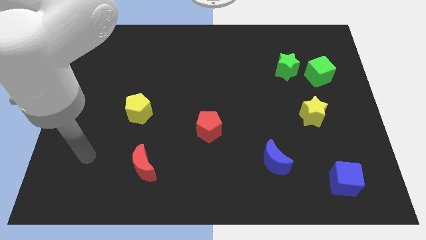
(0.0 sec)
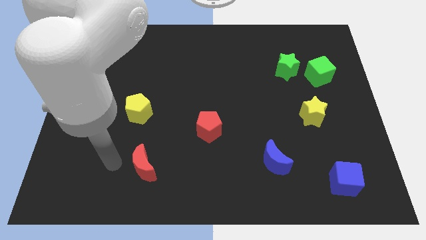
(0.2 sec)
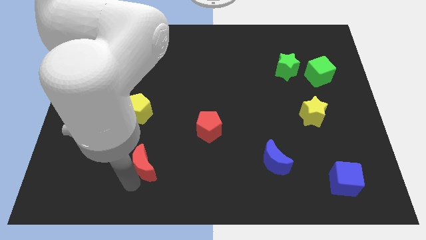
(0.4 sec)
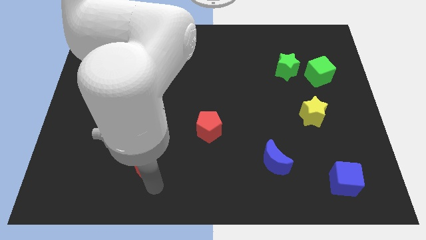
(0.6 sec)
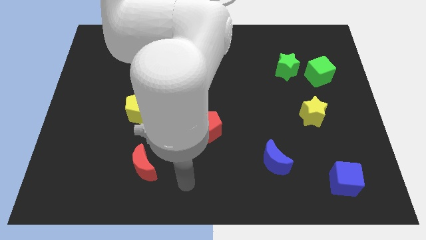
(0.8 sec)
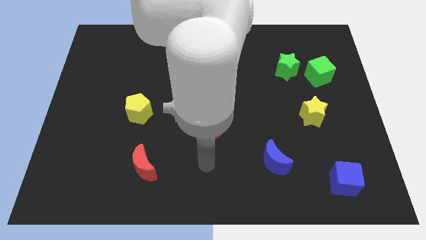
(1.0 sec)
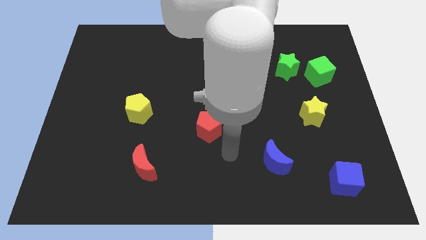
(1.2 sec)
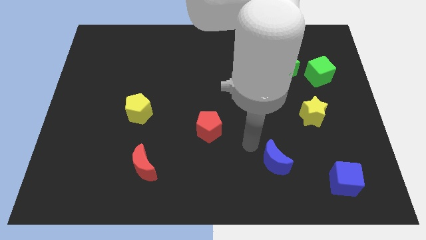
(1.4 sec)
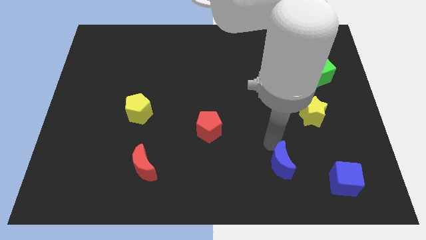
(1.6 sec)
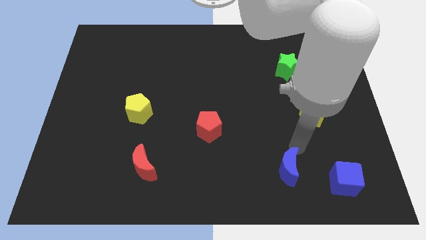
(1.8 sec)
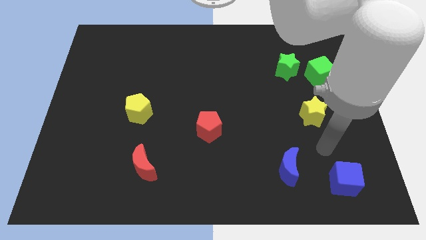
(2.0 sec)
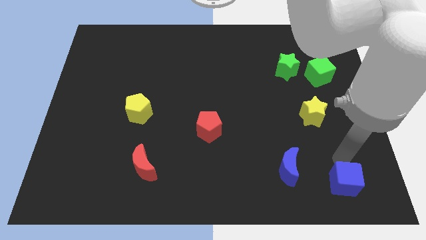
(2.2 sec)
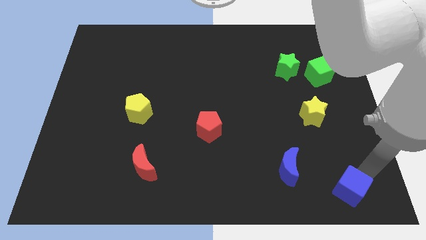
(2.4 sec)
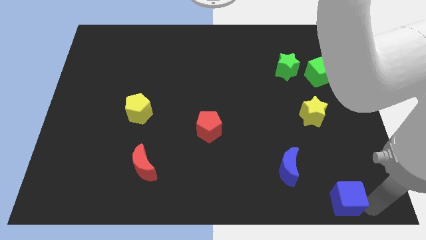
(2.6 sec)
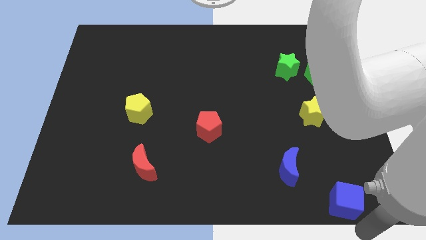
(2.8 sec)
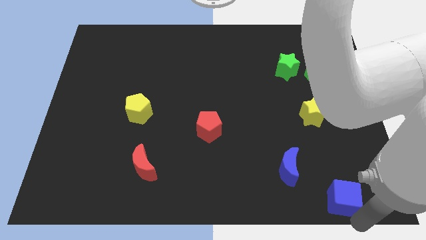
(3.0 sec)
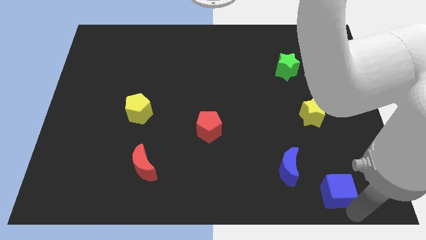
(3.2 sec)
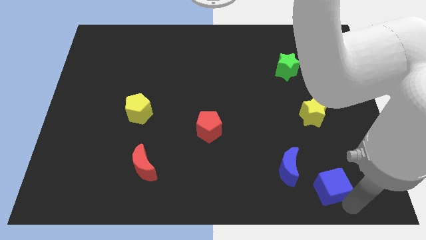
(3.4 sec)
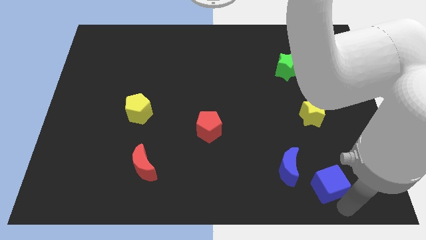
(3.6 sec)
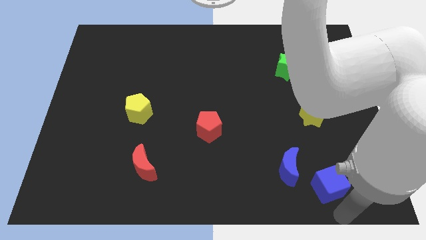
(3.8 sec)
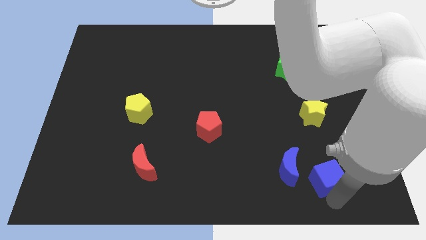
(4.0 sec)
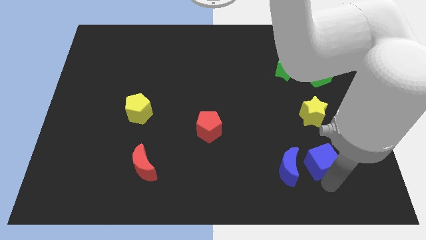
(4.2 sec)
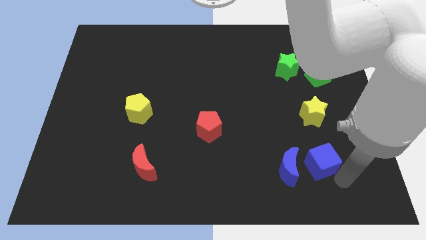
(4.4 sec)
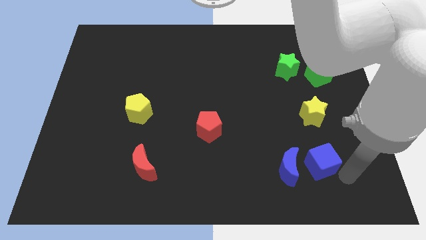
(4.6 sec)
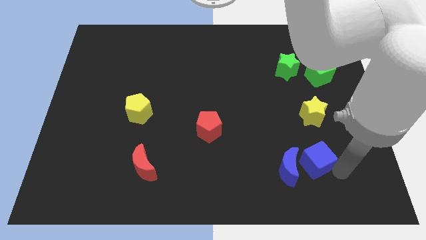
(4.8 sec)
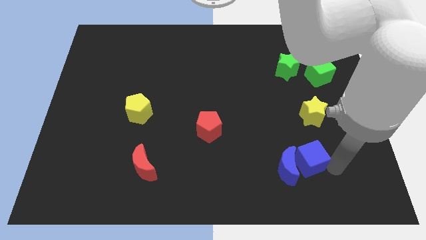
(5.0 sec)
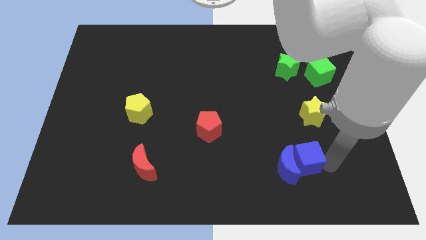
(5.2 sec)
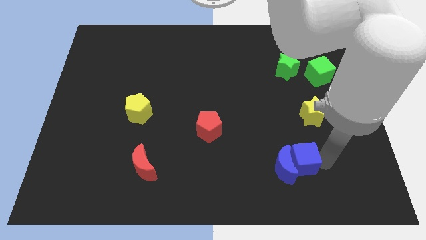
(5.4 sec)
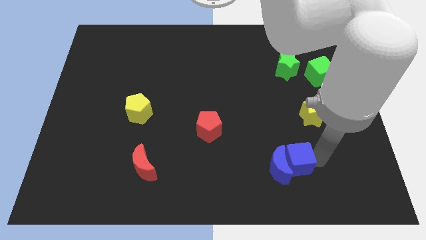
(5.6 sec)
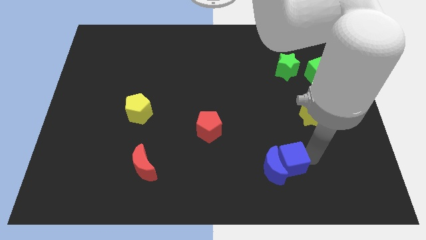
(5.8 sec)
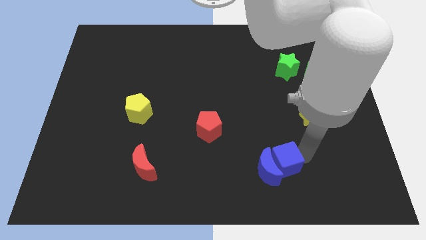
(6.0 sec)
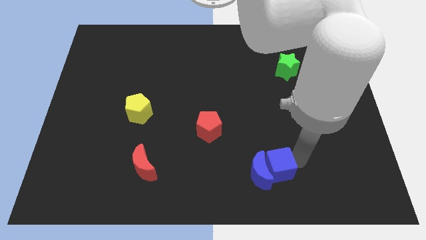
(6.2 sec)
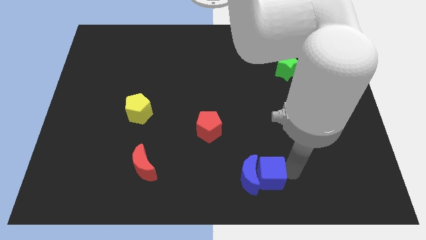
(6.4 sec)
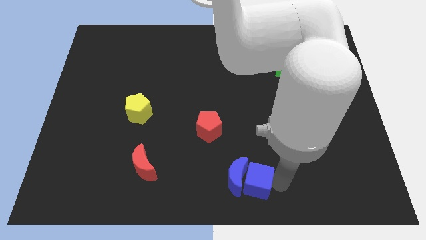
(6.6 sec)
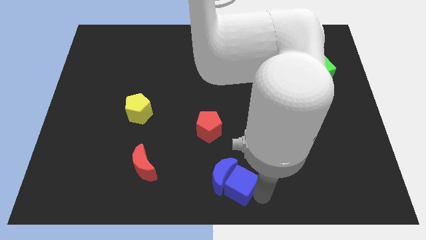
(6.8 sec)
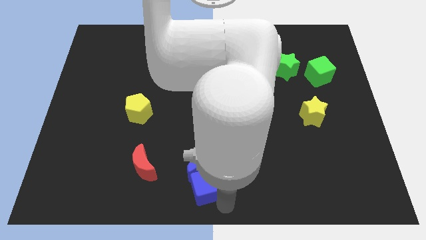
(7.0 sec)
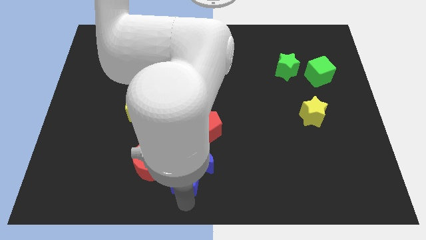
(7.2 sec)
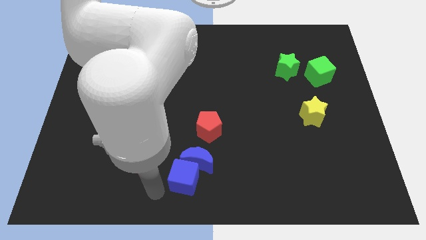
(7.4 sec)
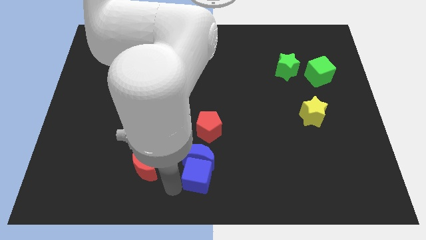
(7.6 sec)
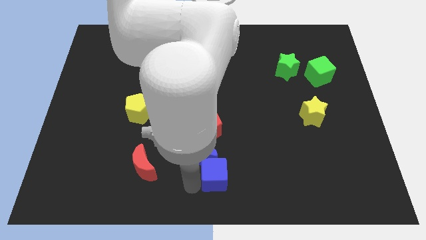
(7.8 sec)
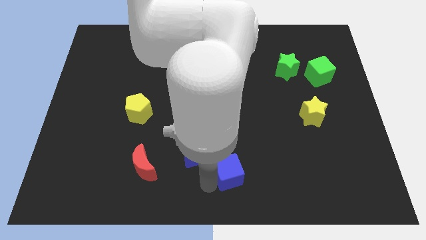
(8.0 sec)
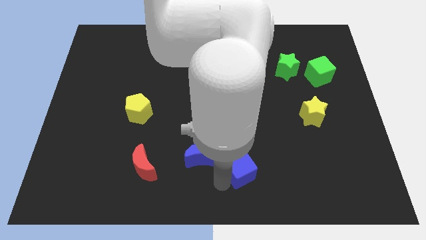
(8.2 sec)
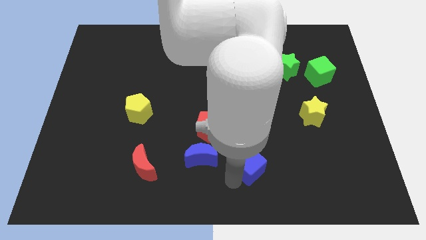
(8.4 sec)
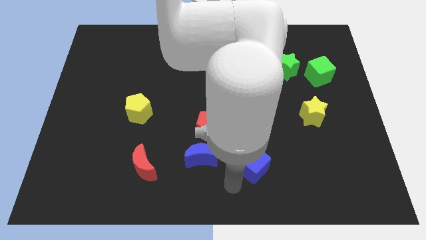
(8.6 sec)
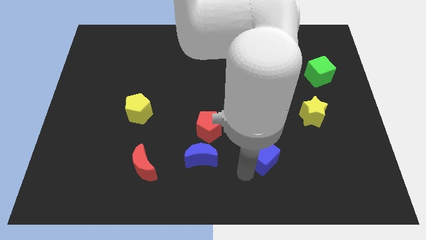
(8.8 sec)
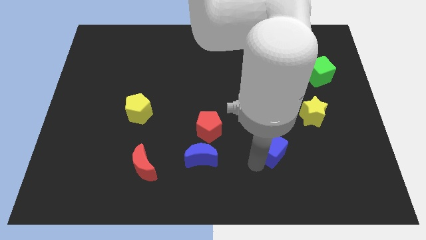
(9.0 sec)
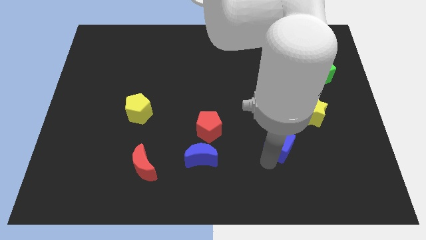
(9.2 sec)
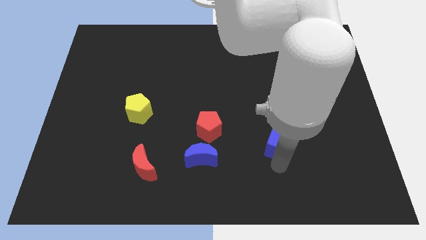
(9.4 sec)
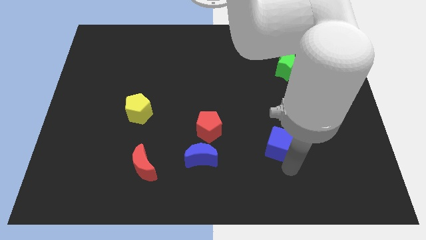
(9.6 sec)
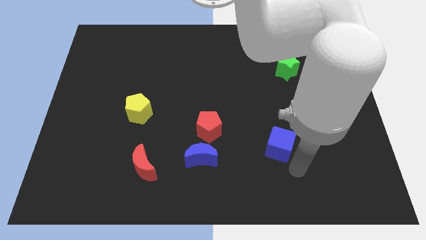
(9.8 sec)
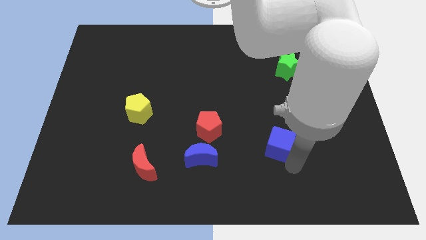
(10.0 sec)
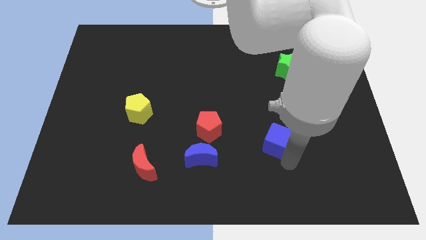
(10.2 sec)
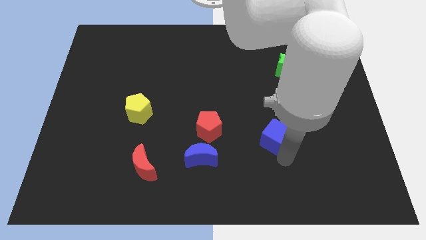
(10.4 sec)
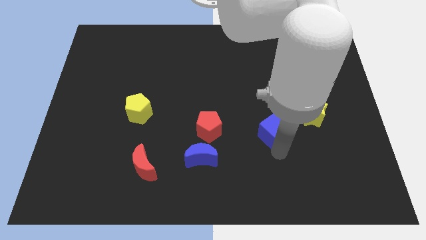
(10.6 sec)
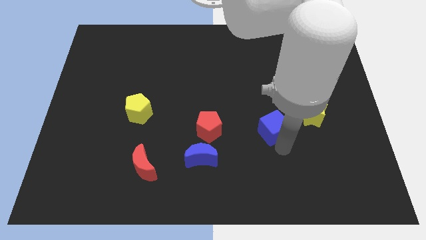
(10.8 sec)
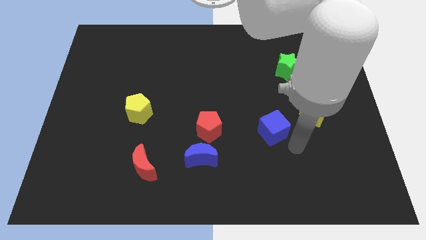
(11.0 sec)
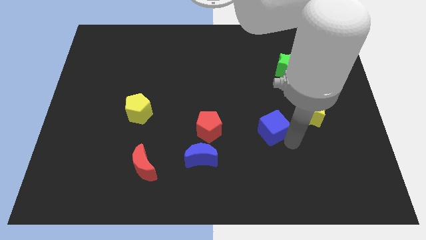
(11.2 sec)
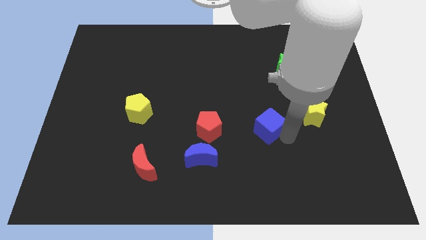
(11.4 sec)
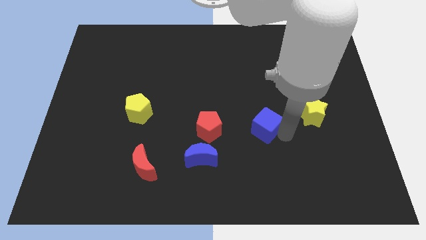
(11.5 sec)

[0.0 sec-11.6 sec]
move the blue cube upwards and to the left

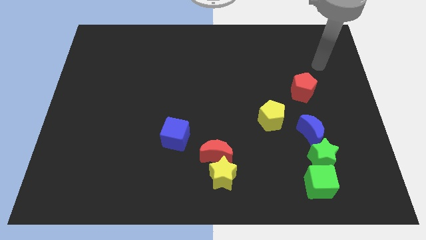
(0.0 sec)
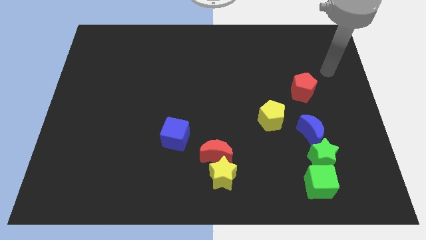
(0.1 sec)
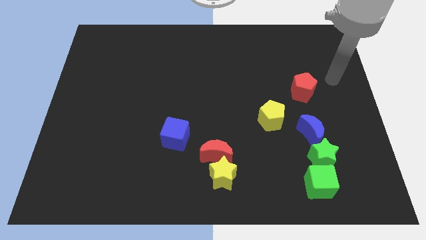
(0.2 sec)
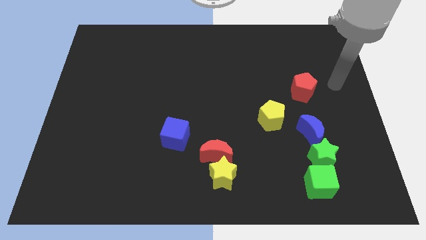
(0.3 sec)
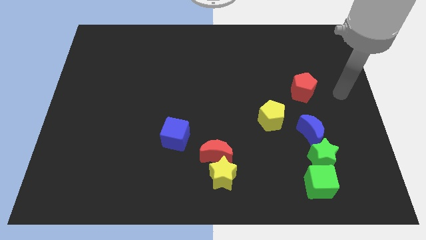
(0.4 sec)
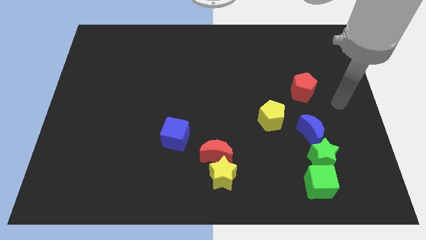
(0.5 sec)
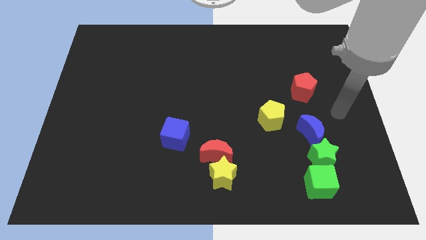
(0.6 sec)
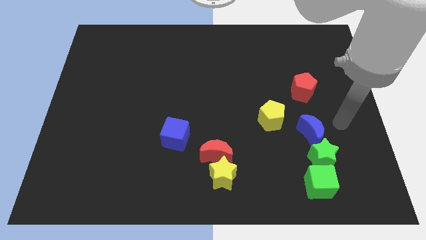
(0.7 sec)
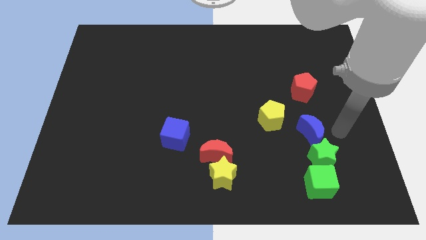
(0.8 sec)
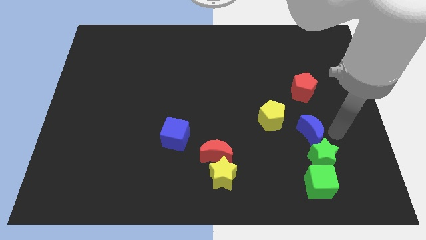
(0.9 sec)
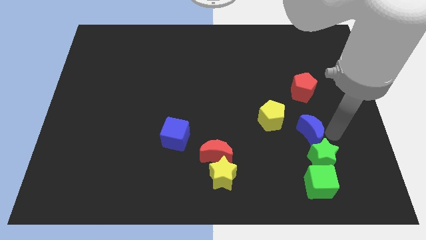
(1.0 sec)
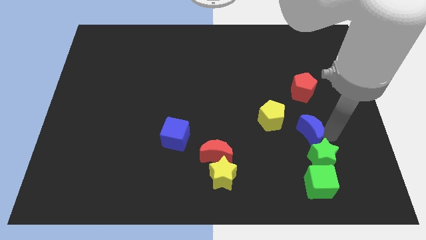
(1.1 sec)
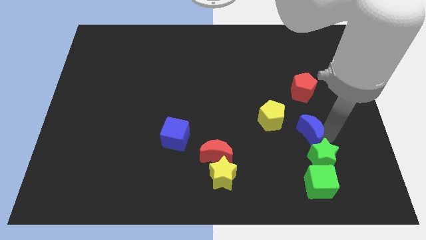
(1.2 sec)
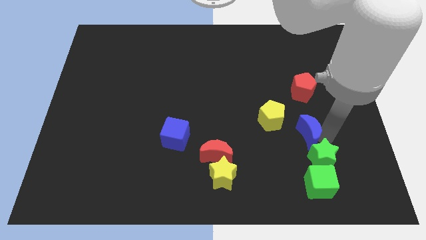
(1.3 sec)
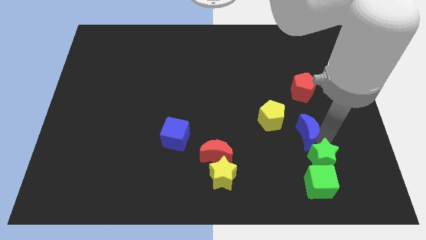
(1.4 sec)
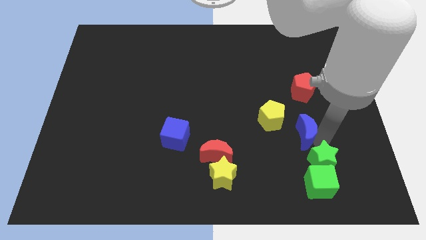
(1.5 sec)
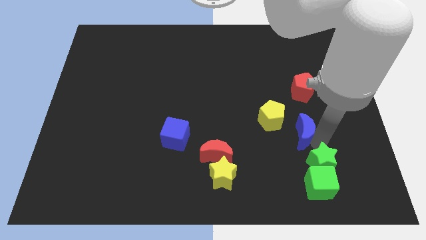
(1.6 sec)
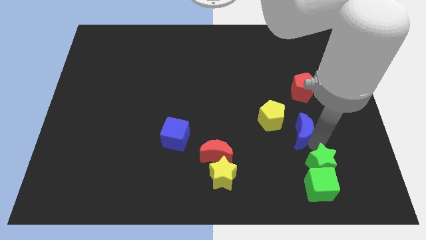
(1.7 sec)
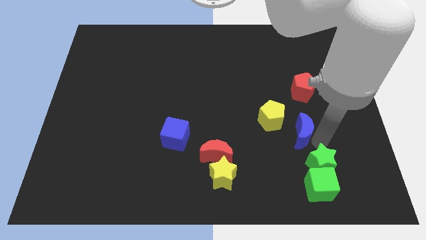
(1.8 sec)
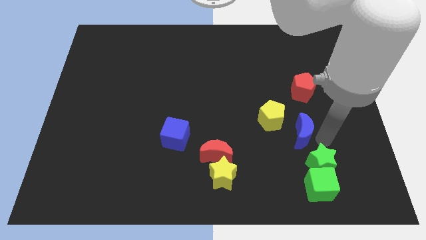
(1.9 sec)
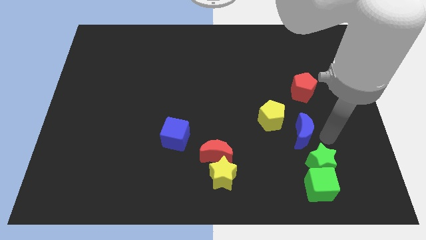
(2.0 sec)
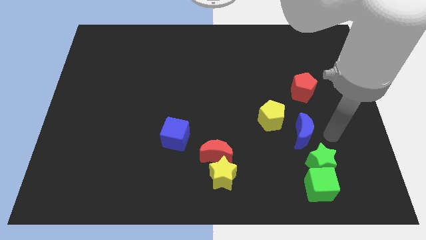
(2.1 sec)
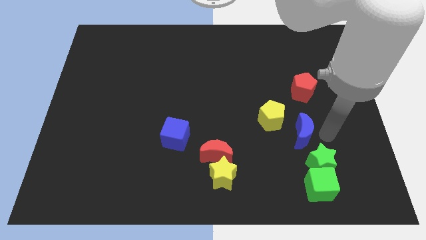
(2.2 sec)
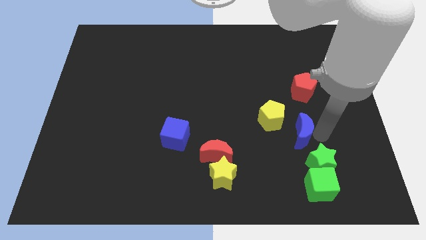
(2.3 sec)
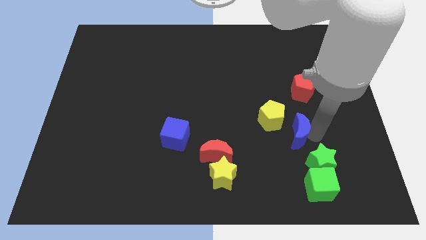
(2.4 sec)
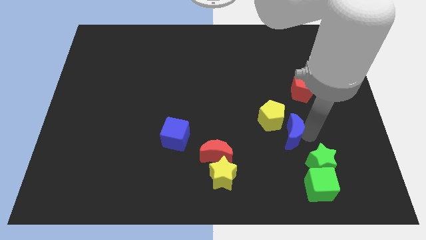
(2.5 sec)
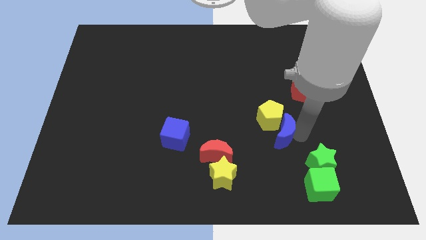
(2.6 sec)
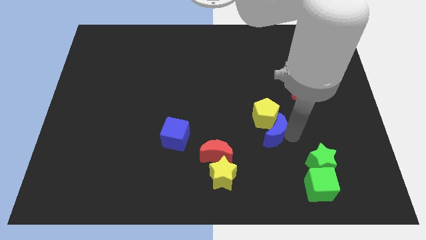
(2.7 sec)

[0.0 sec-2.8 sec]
move the blue moon a little left
